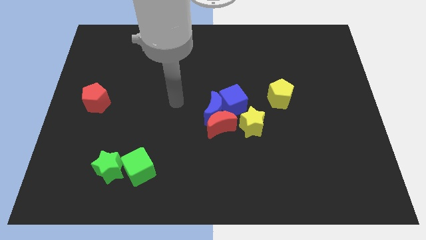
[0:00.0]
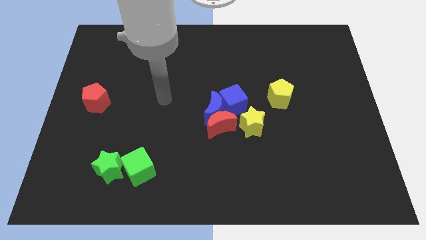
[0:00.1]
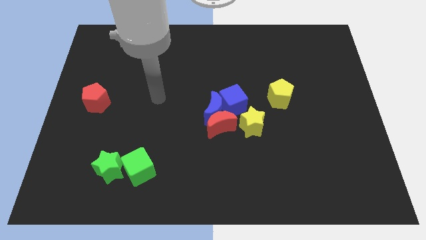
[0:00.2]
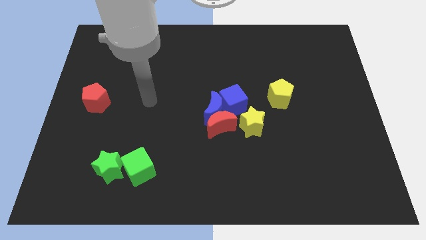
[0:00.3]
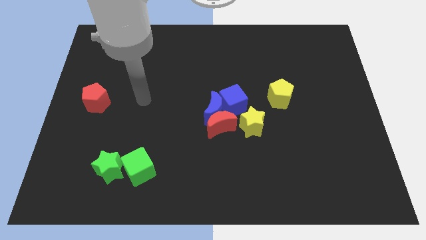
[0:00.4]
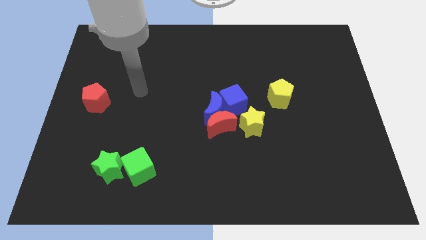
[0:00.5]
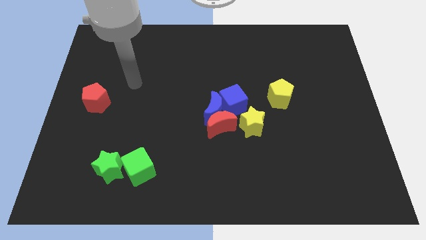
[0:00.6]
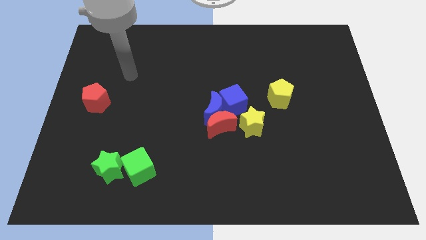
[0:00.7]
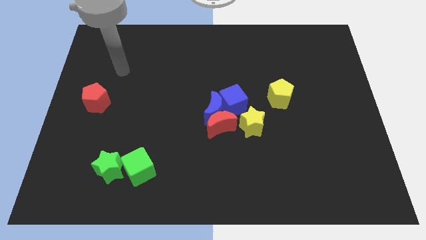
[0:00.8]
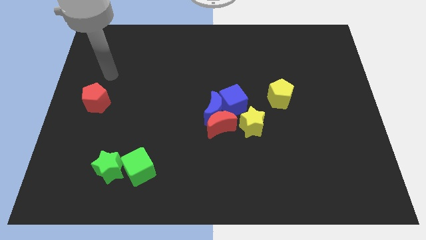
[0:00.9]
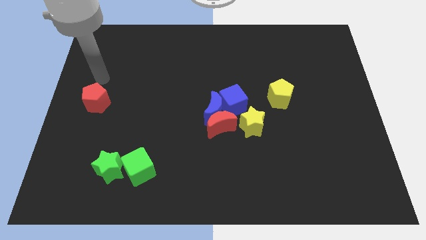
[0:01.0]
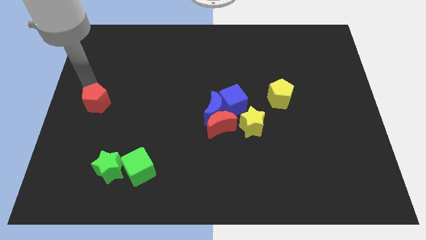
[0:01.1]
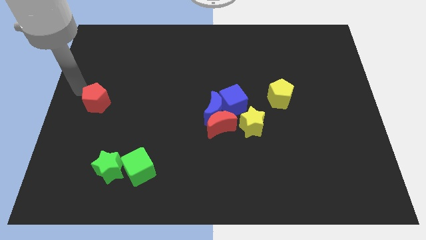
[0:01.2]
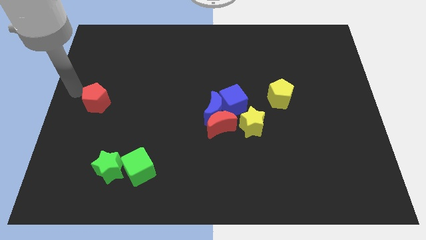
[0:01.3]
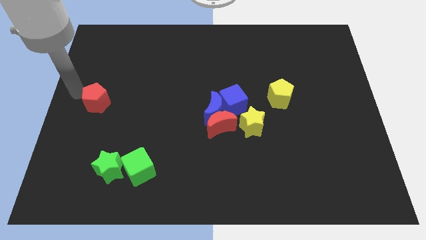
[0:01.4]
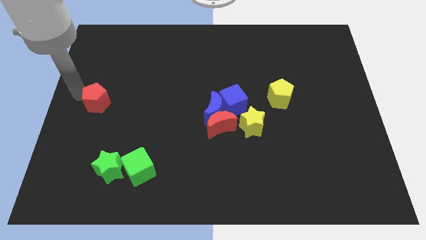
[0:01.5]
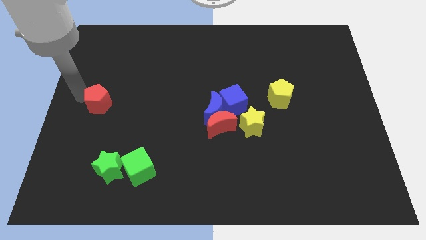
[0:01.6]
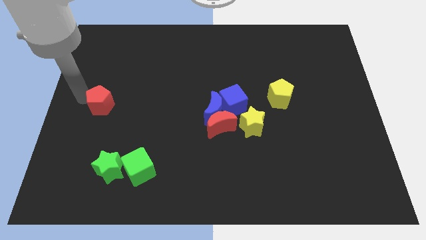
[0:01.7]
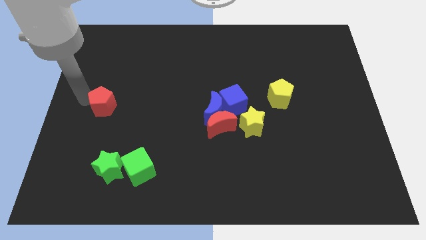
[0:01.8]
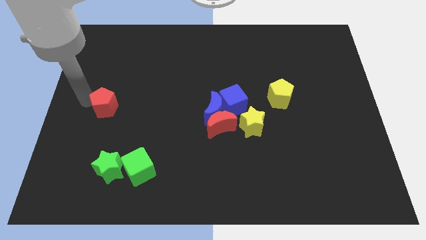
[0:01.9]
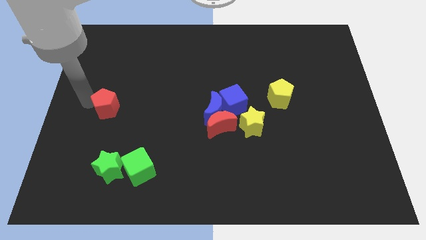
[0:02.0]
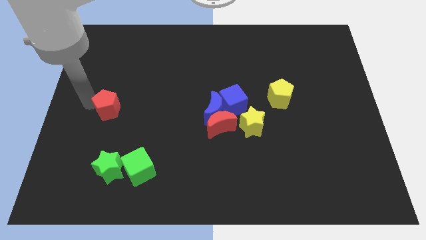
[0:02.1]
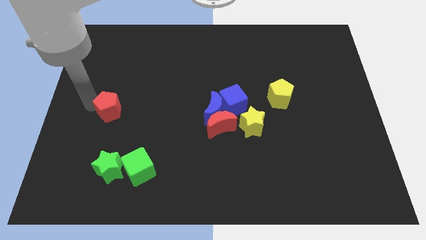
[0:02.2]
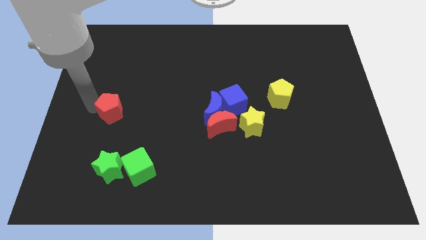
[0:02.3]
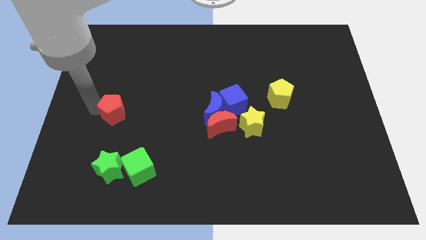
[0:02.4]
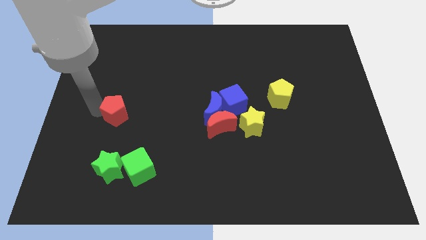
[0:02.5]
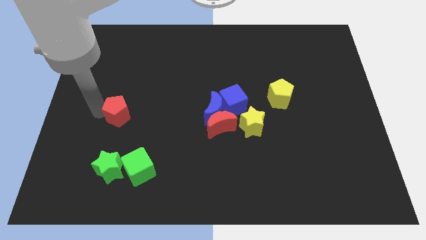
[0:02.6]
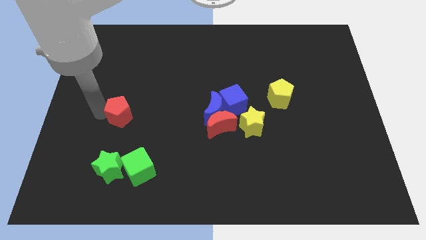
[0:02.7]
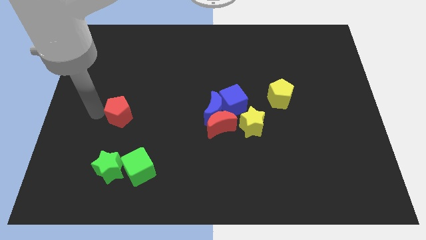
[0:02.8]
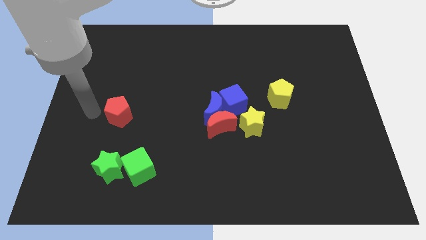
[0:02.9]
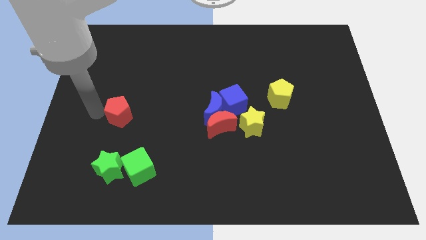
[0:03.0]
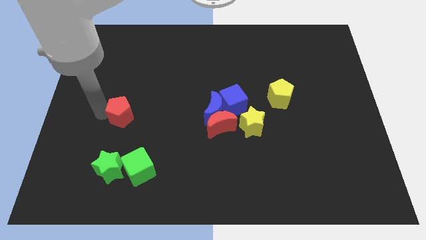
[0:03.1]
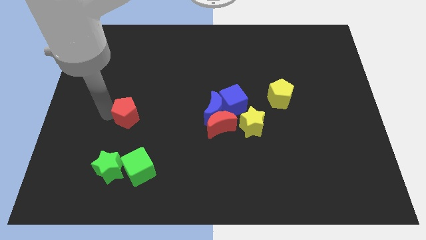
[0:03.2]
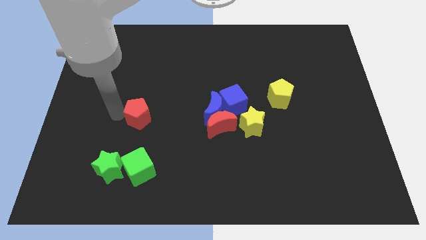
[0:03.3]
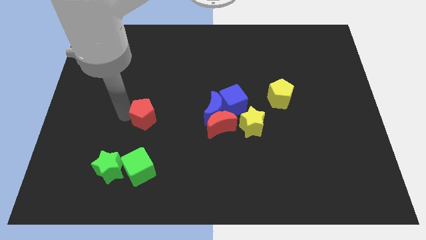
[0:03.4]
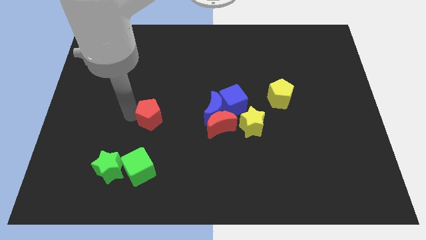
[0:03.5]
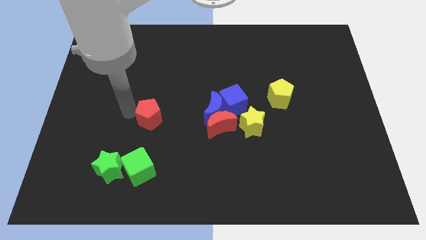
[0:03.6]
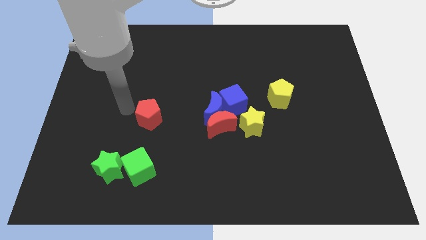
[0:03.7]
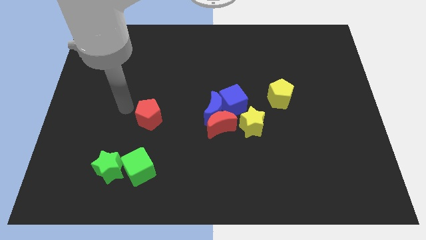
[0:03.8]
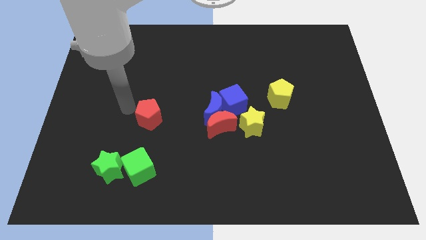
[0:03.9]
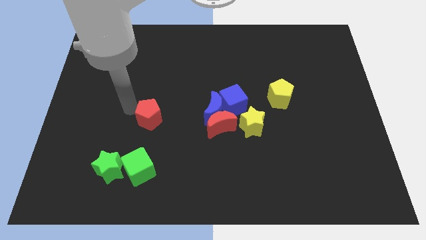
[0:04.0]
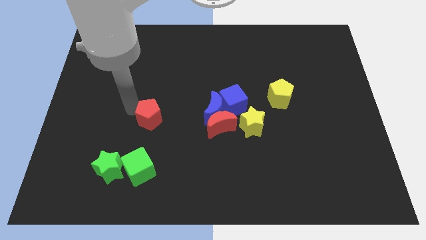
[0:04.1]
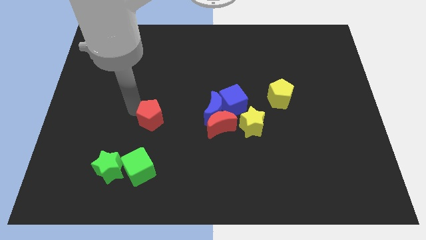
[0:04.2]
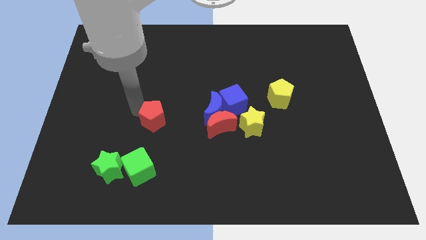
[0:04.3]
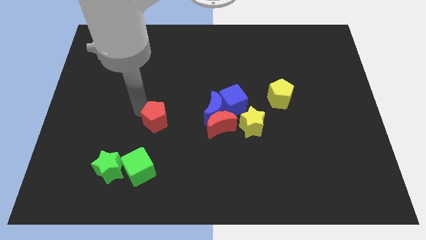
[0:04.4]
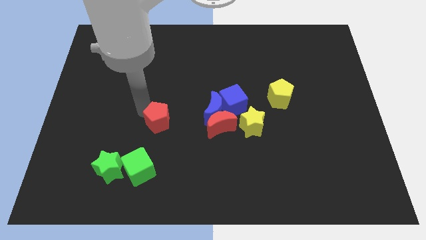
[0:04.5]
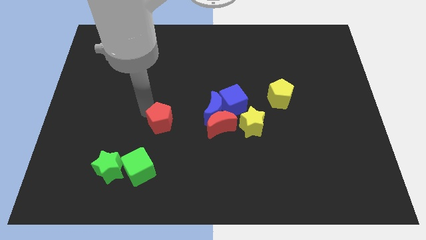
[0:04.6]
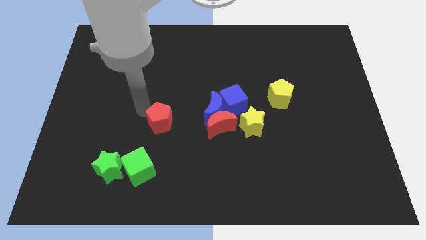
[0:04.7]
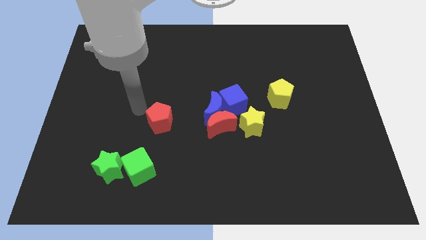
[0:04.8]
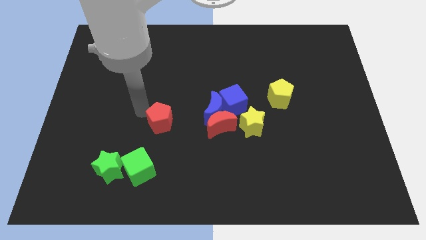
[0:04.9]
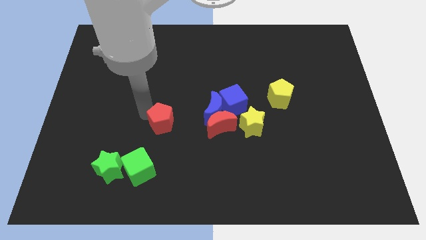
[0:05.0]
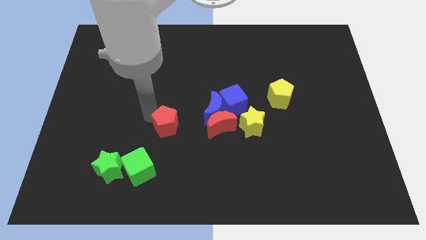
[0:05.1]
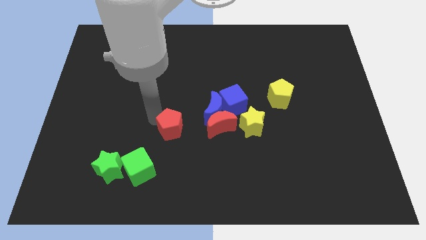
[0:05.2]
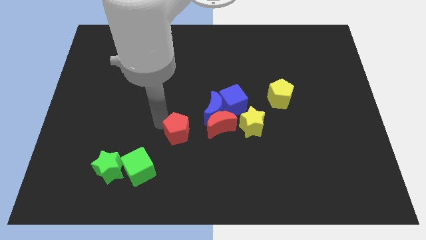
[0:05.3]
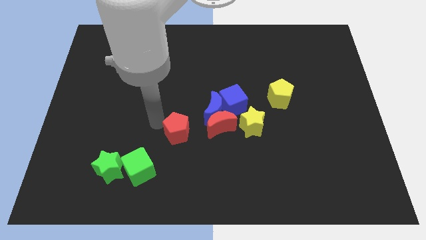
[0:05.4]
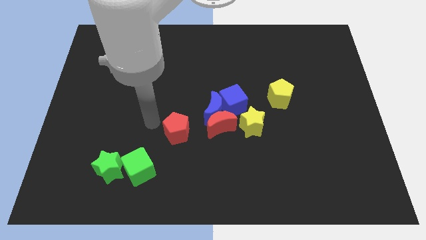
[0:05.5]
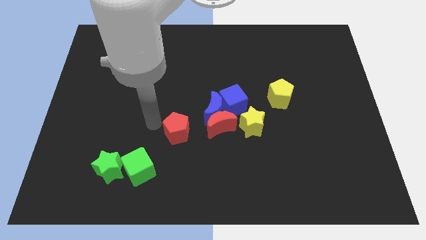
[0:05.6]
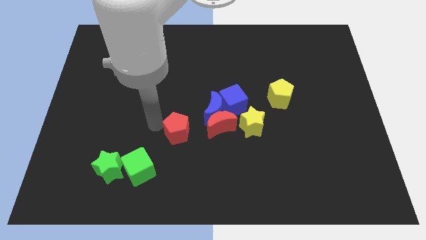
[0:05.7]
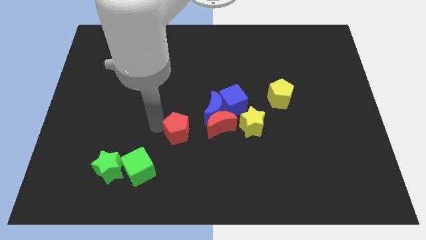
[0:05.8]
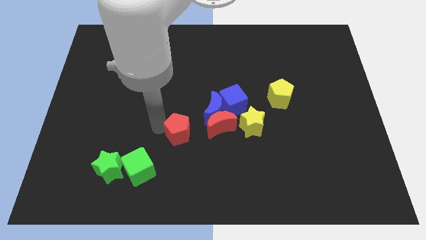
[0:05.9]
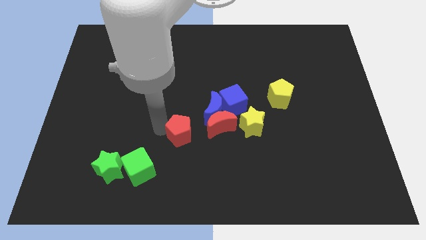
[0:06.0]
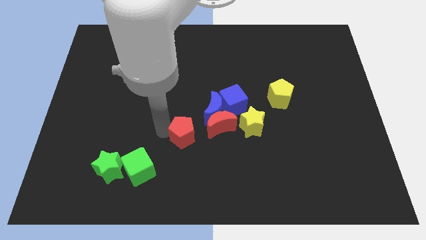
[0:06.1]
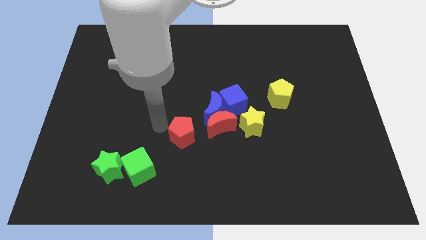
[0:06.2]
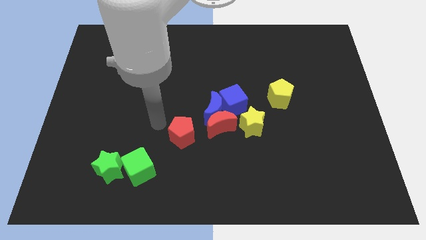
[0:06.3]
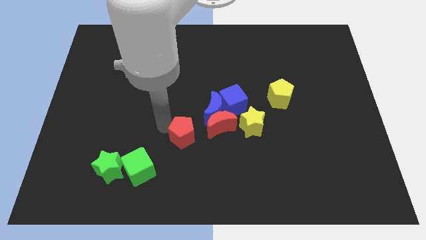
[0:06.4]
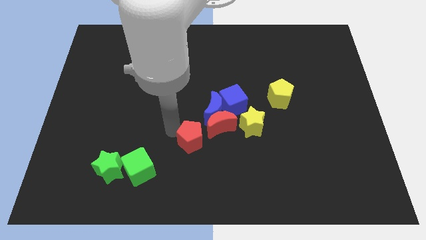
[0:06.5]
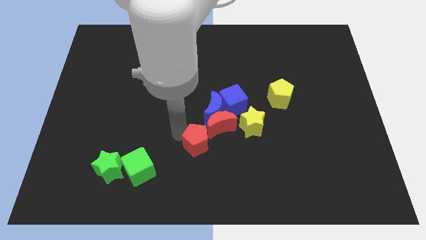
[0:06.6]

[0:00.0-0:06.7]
move the red pentagon to the bottom of the blue moon

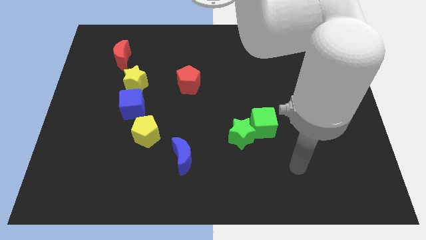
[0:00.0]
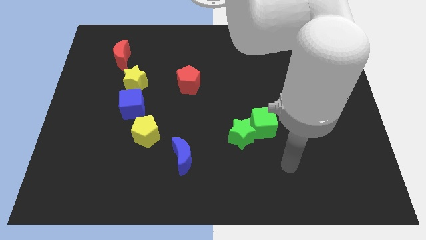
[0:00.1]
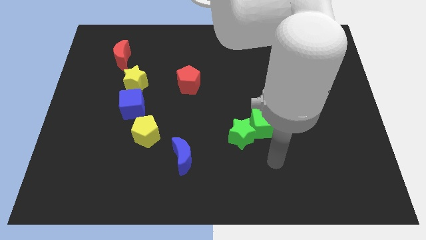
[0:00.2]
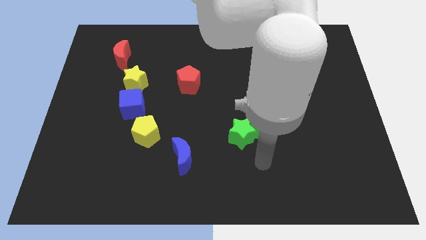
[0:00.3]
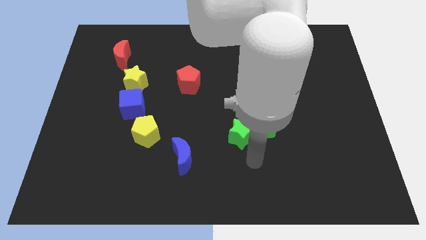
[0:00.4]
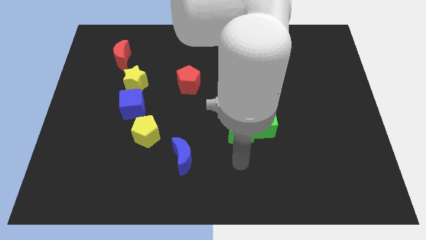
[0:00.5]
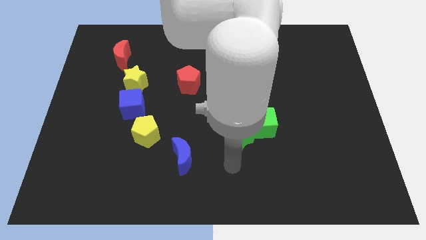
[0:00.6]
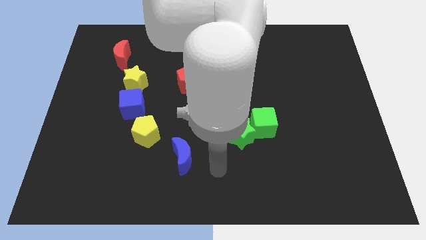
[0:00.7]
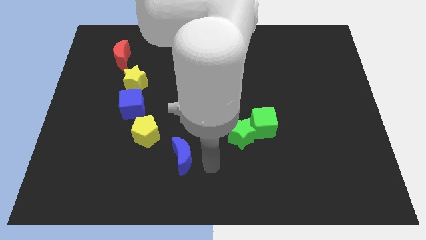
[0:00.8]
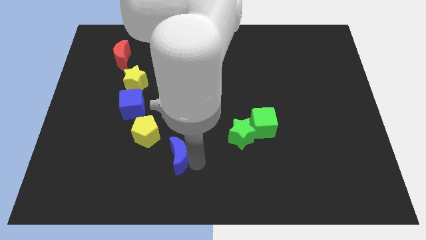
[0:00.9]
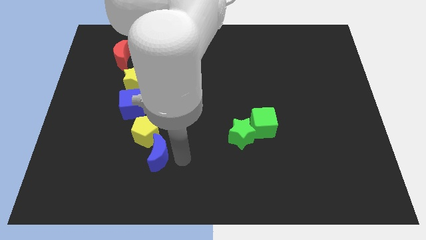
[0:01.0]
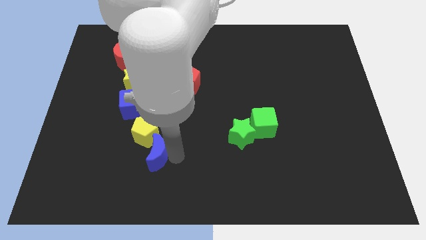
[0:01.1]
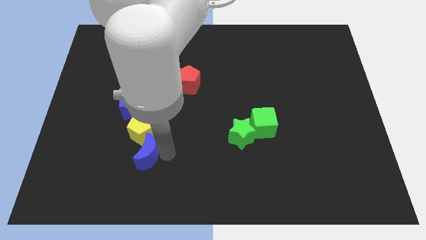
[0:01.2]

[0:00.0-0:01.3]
move the yellow pentagon to the bottom of the yellow star
